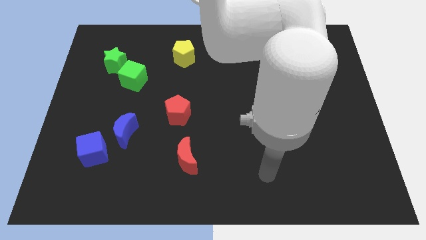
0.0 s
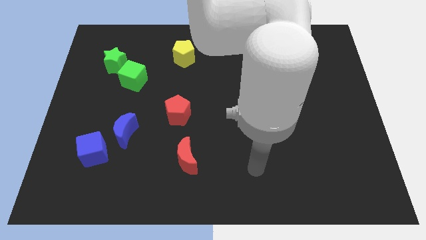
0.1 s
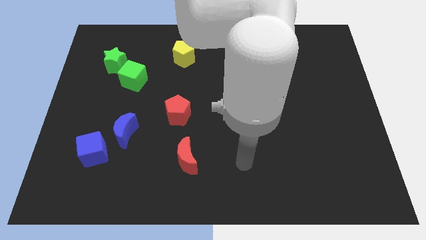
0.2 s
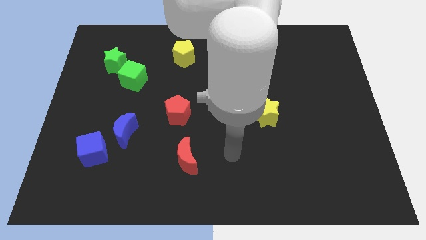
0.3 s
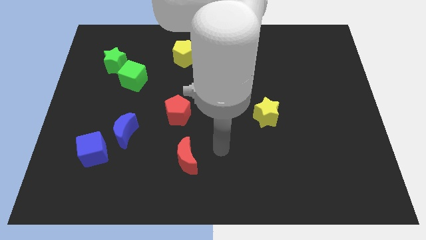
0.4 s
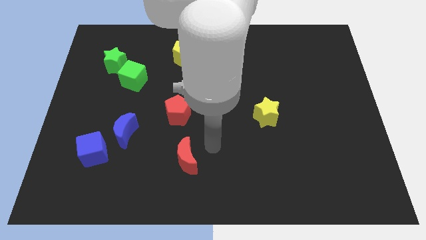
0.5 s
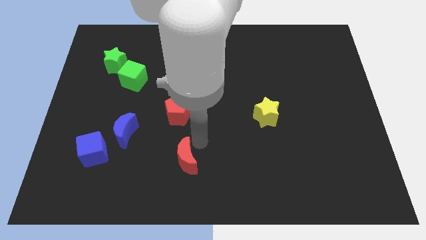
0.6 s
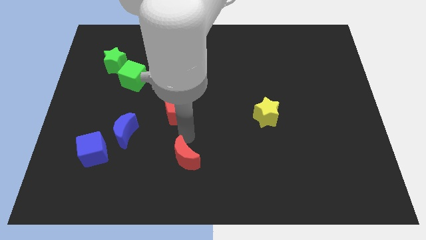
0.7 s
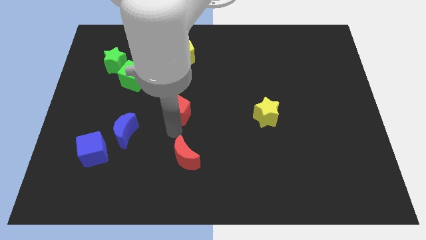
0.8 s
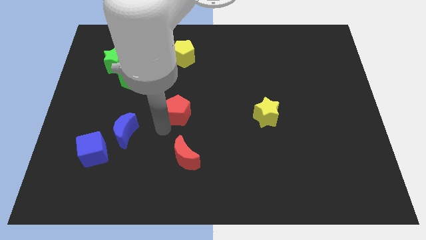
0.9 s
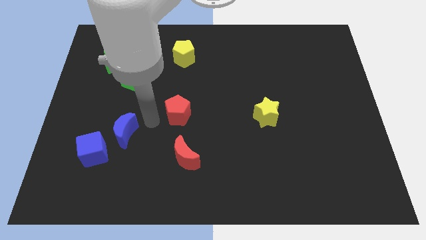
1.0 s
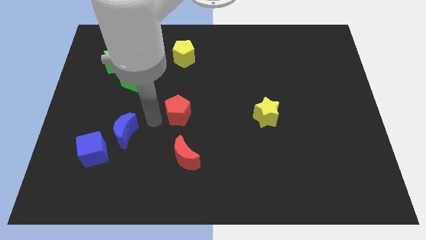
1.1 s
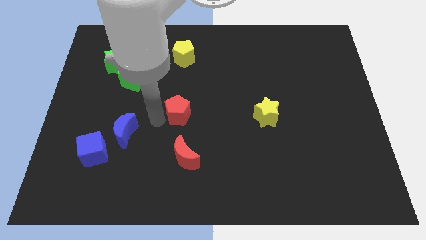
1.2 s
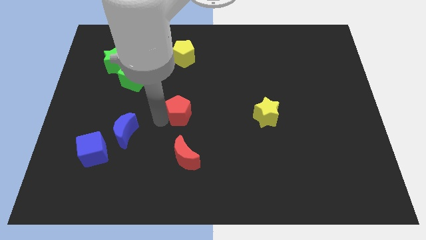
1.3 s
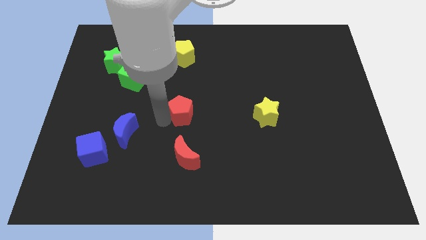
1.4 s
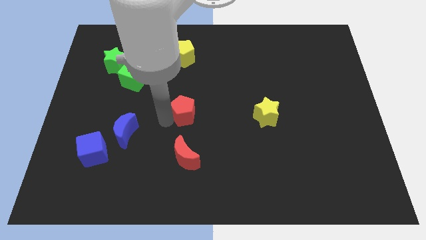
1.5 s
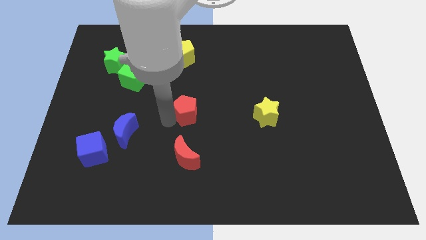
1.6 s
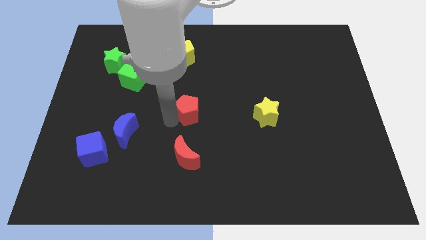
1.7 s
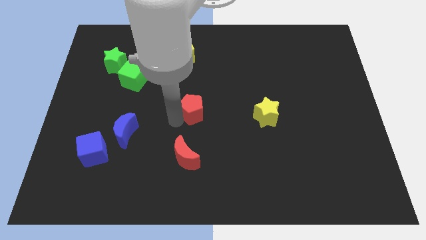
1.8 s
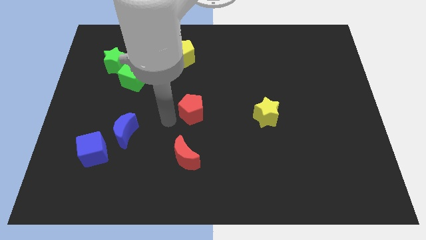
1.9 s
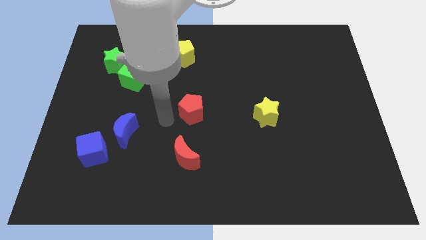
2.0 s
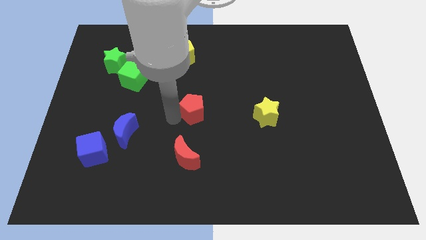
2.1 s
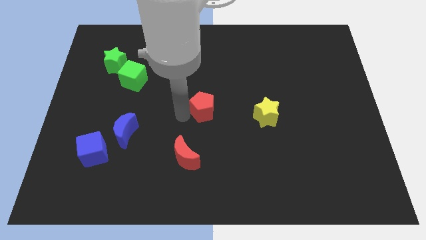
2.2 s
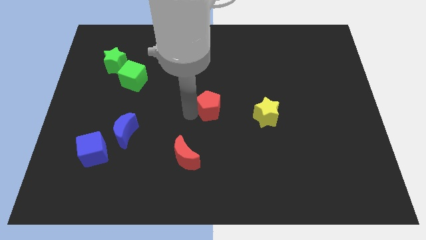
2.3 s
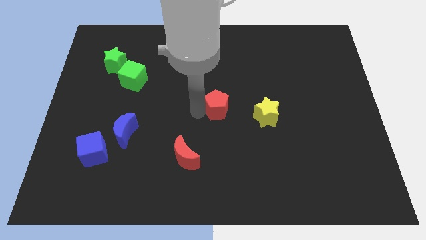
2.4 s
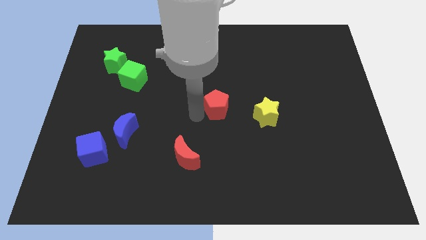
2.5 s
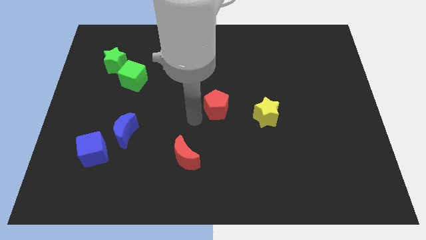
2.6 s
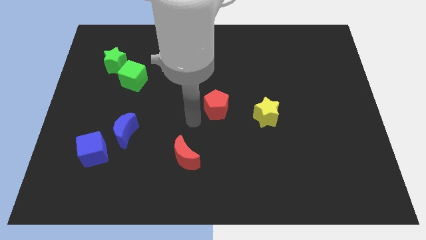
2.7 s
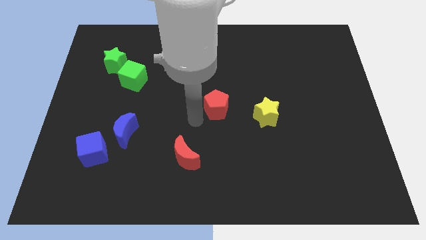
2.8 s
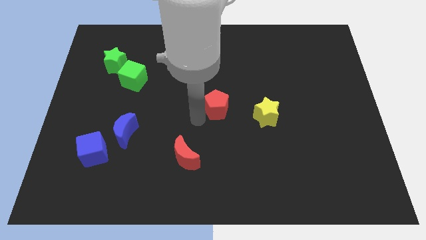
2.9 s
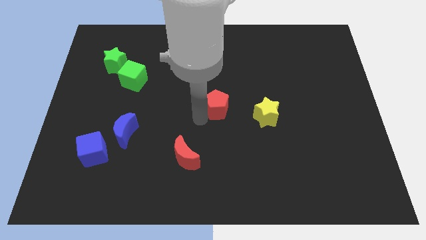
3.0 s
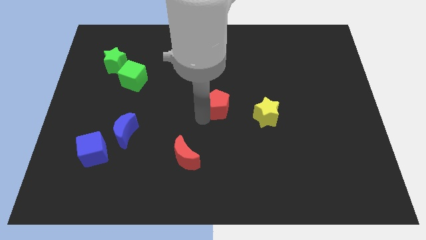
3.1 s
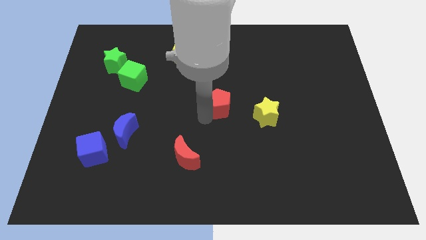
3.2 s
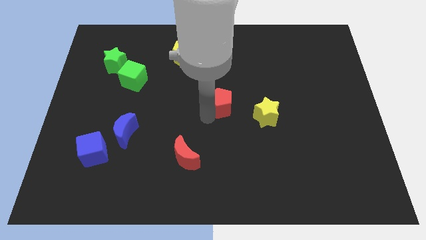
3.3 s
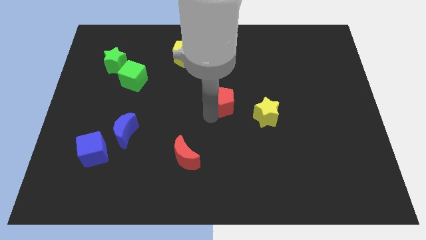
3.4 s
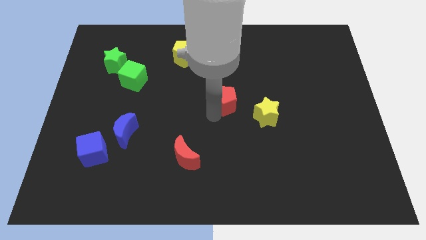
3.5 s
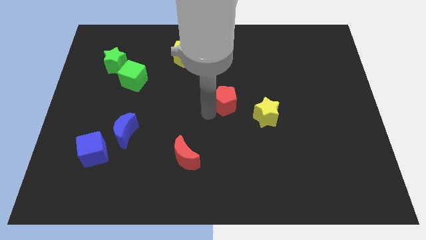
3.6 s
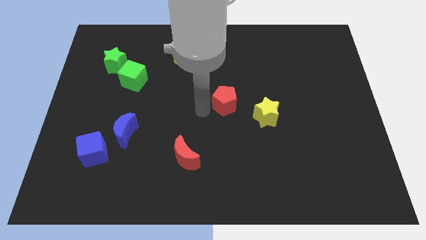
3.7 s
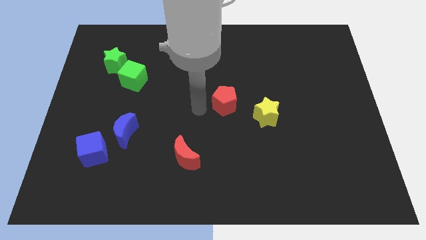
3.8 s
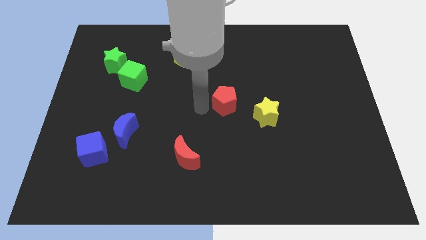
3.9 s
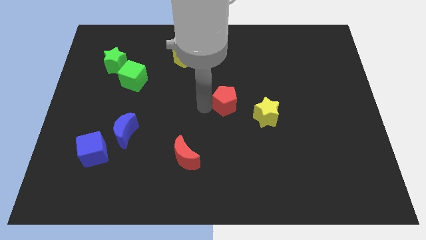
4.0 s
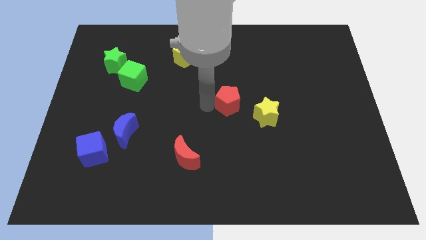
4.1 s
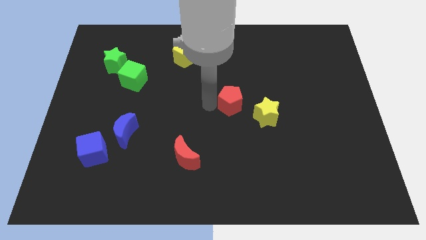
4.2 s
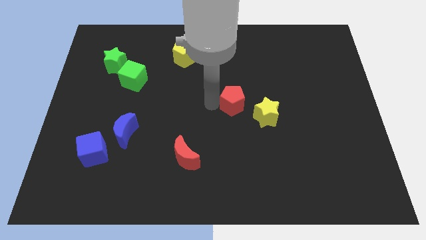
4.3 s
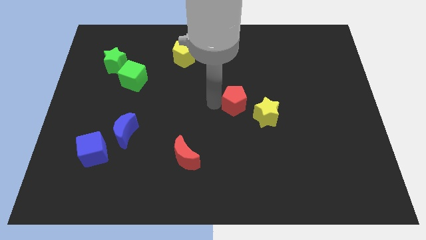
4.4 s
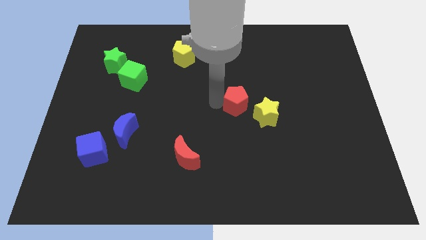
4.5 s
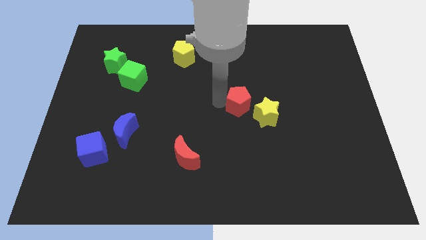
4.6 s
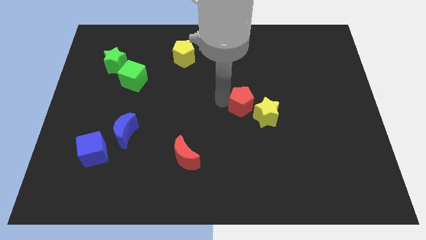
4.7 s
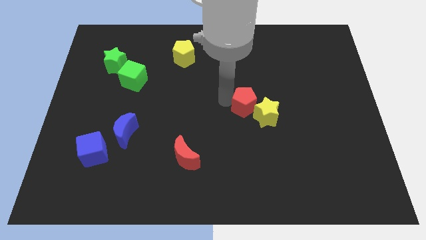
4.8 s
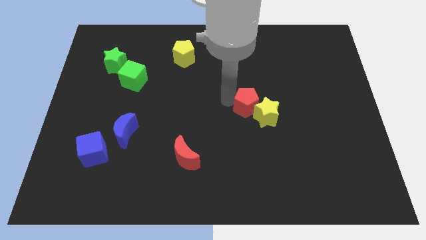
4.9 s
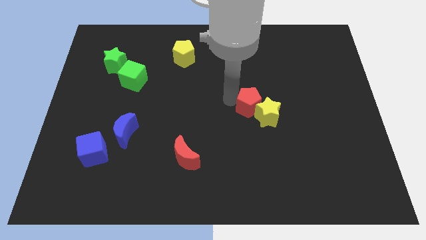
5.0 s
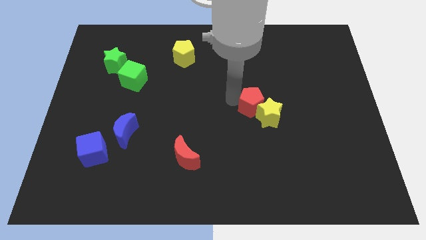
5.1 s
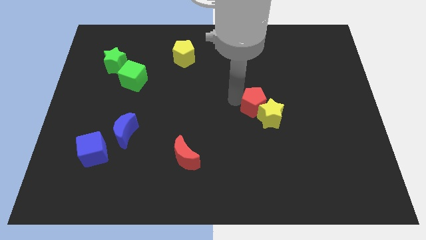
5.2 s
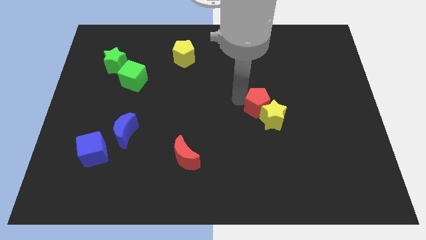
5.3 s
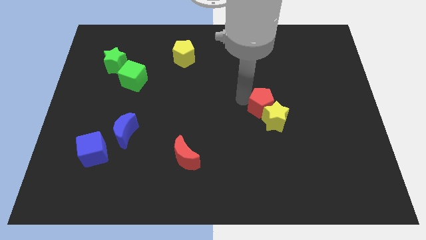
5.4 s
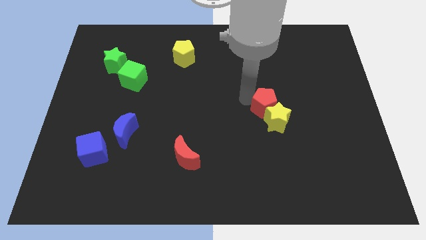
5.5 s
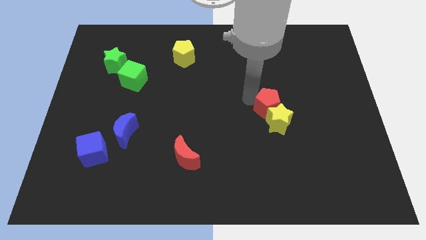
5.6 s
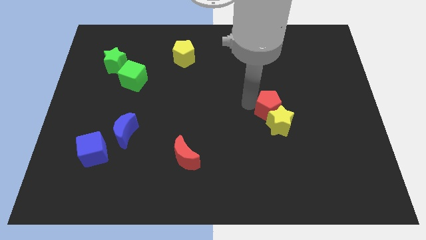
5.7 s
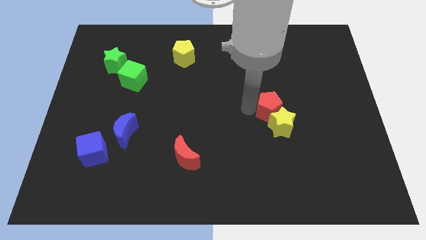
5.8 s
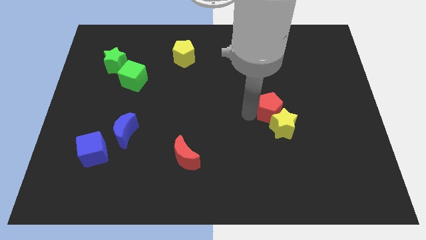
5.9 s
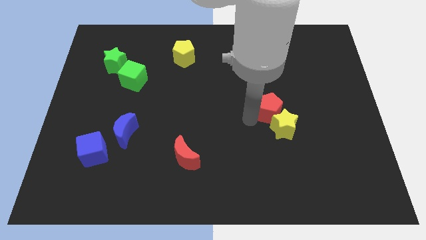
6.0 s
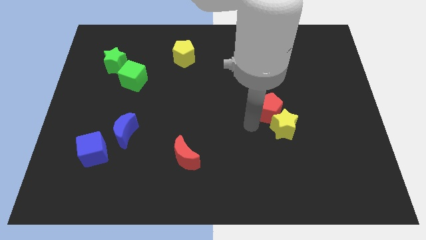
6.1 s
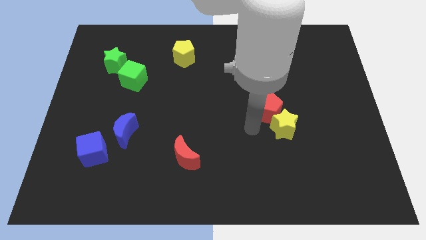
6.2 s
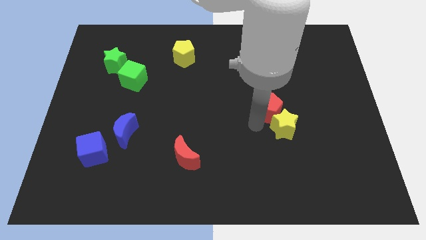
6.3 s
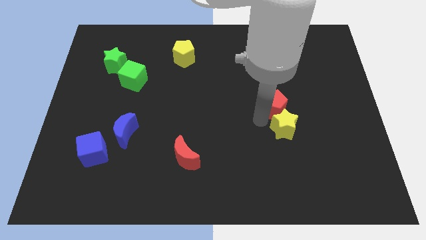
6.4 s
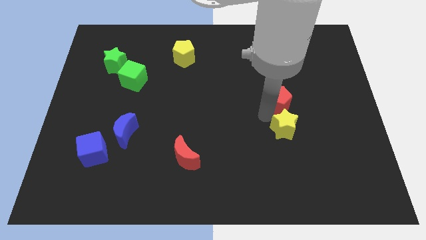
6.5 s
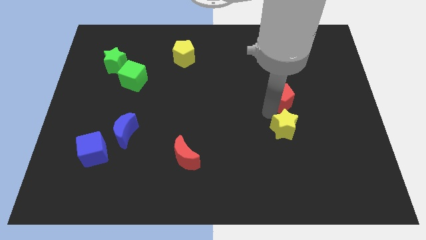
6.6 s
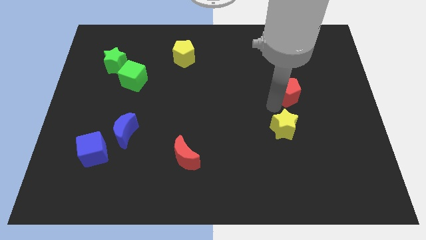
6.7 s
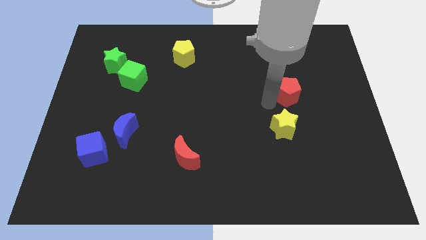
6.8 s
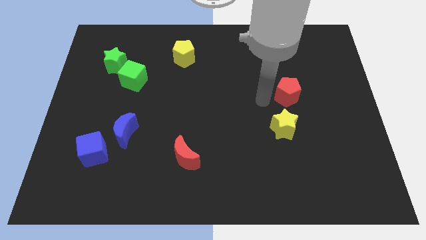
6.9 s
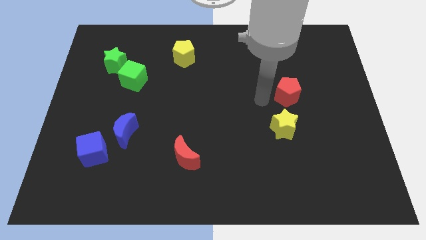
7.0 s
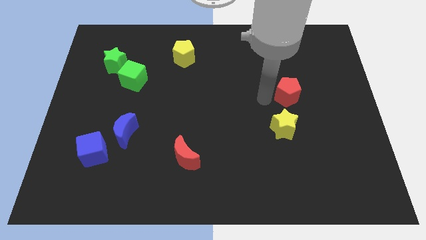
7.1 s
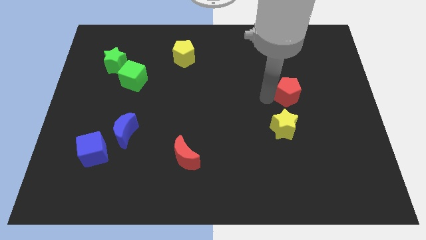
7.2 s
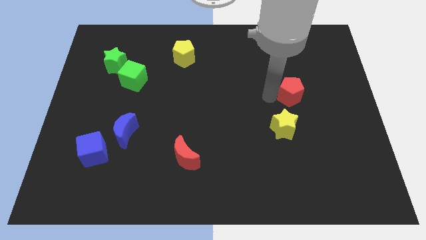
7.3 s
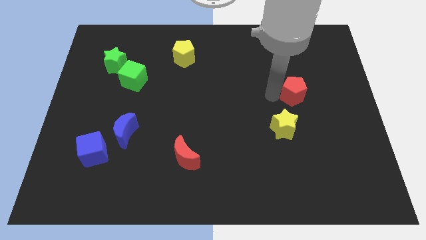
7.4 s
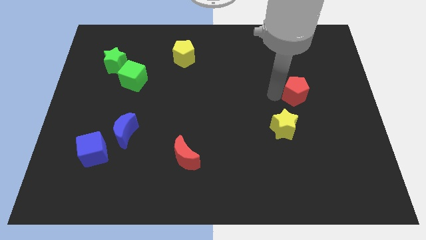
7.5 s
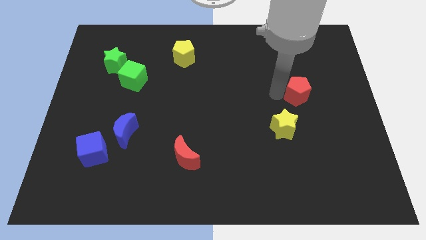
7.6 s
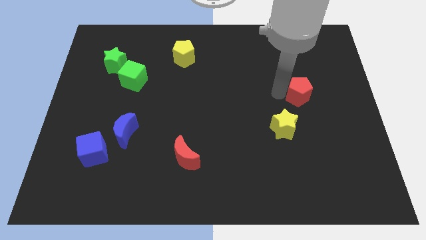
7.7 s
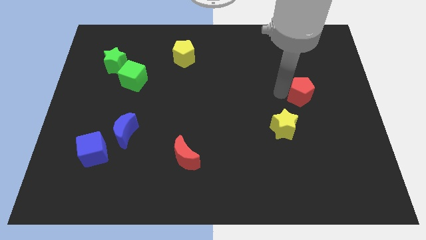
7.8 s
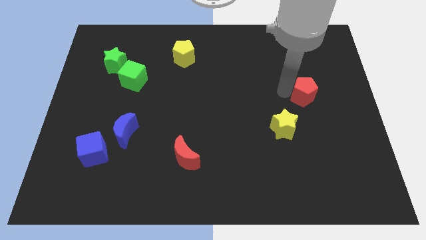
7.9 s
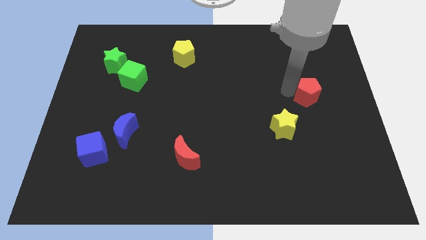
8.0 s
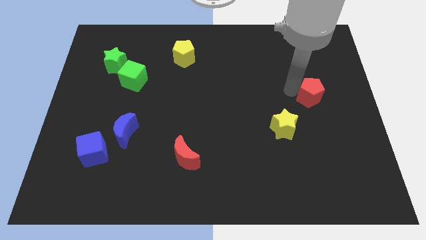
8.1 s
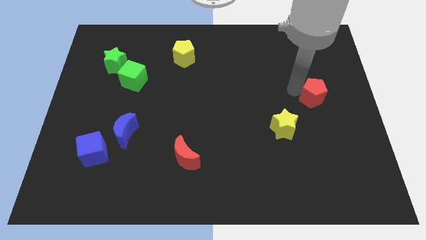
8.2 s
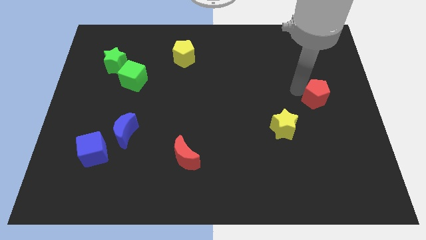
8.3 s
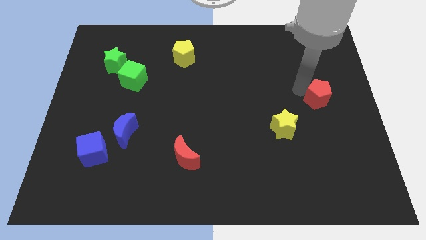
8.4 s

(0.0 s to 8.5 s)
move the red pentagon to the right side
